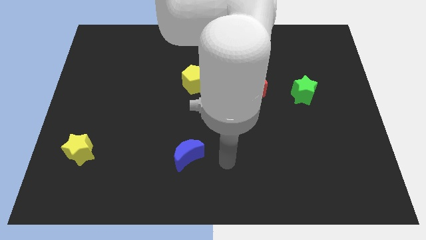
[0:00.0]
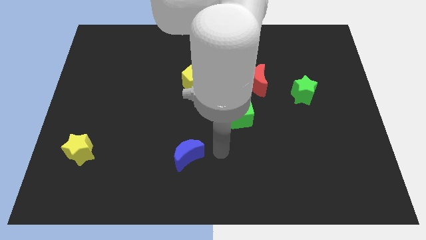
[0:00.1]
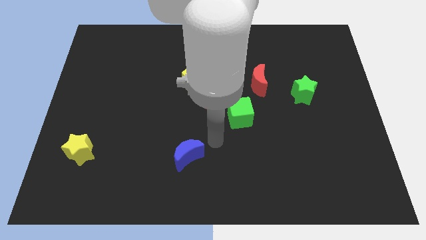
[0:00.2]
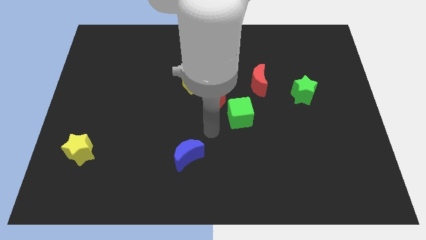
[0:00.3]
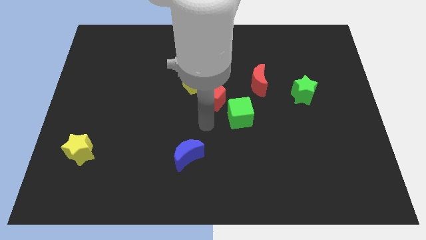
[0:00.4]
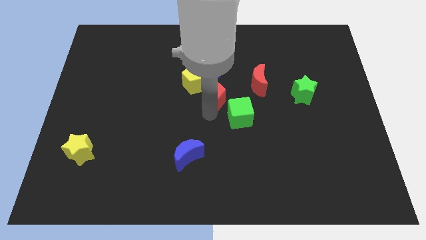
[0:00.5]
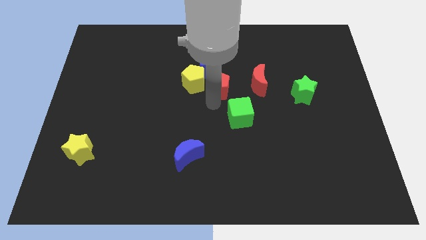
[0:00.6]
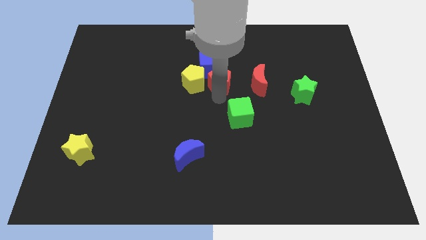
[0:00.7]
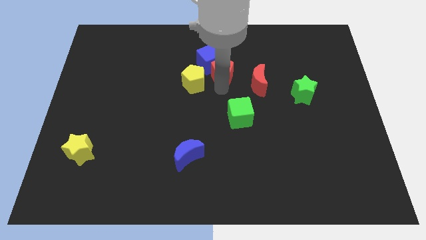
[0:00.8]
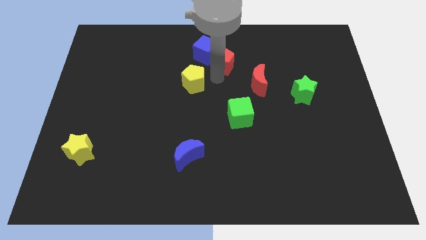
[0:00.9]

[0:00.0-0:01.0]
pull the yellow pentagon apart from the blue cube and red pentagon

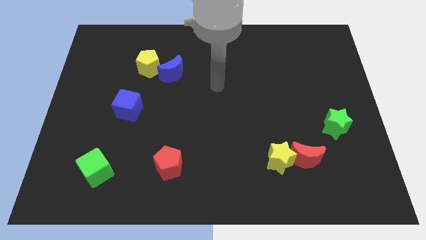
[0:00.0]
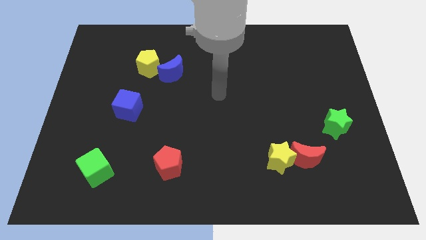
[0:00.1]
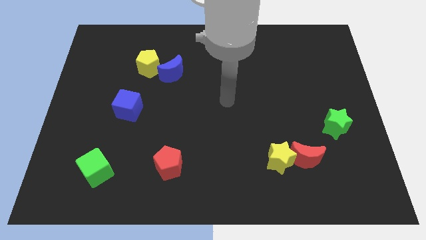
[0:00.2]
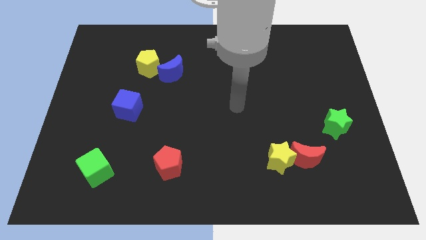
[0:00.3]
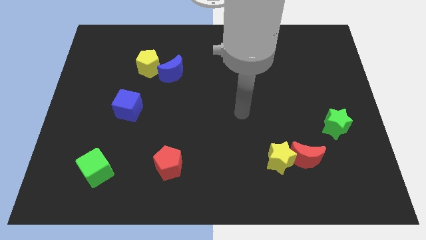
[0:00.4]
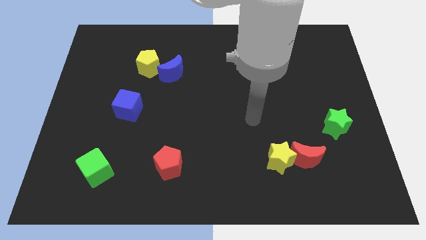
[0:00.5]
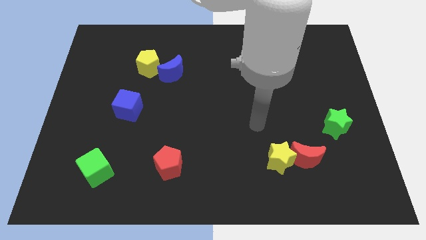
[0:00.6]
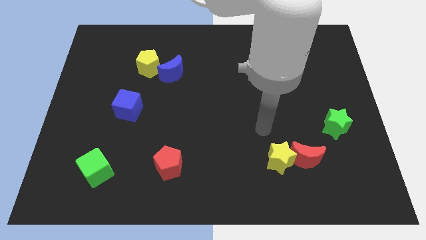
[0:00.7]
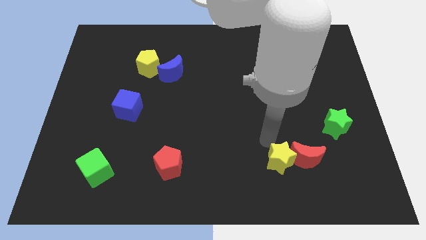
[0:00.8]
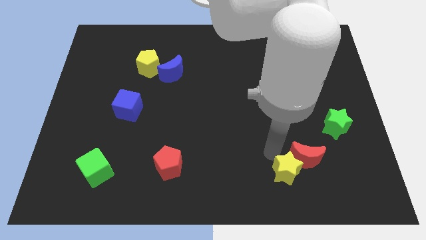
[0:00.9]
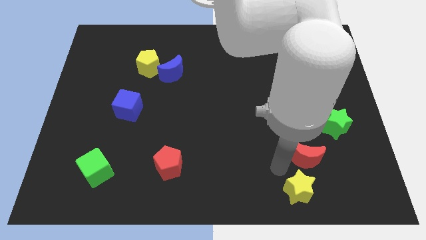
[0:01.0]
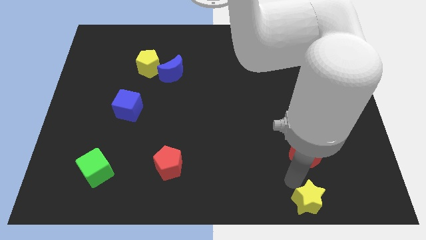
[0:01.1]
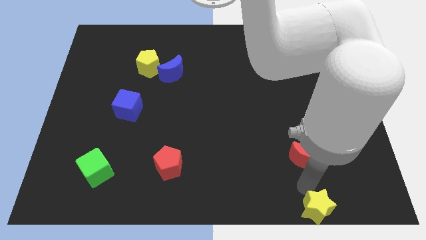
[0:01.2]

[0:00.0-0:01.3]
move the red moon away from the yellow star

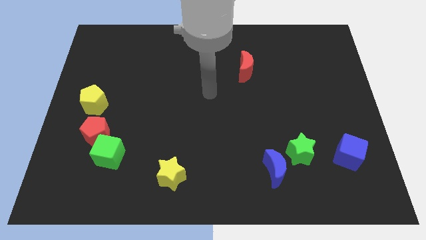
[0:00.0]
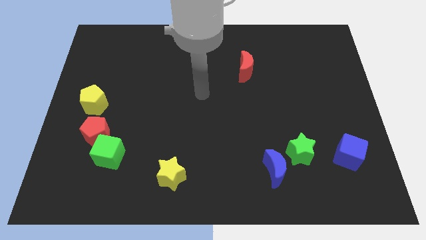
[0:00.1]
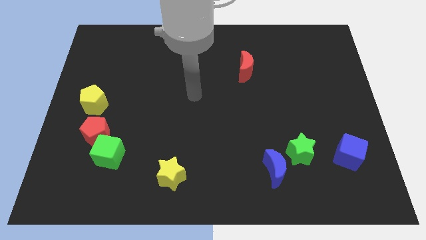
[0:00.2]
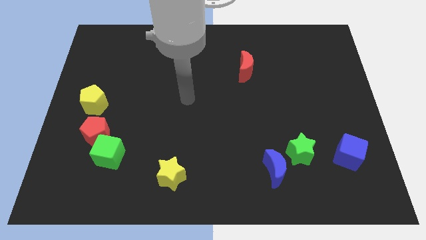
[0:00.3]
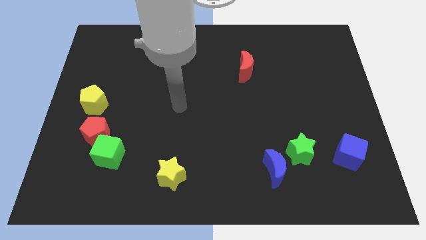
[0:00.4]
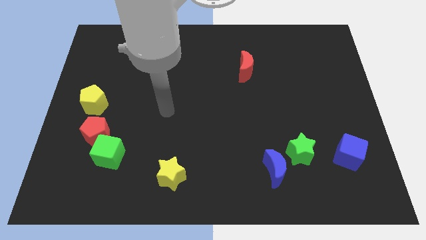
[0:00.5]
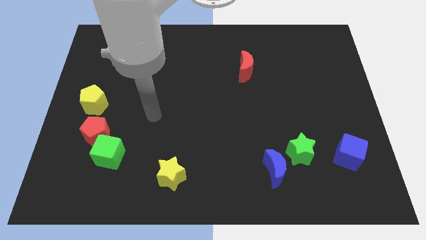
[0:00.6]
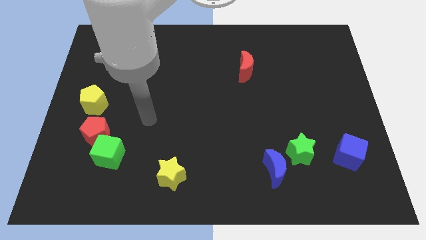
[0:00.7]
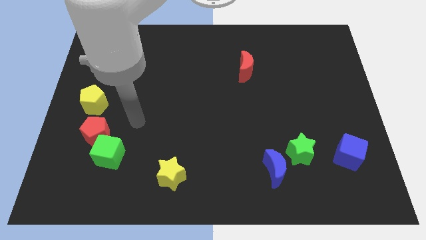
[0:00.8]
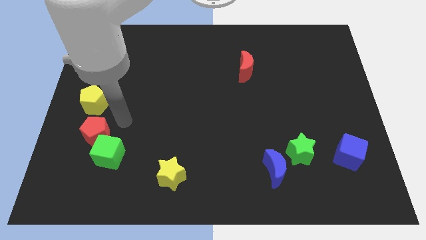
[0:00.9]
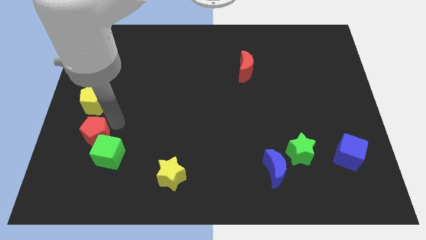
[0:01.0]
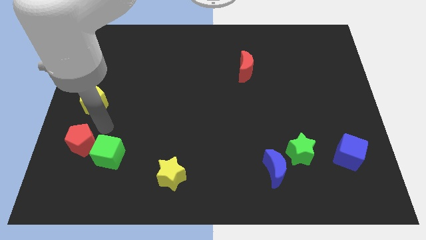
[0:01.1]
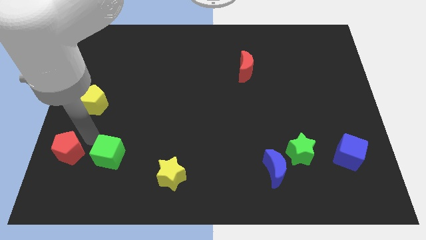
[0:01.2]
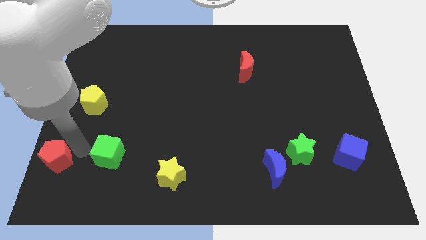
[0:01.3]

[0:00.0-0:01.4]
separate the green cube from the red pentagon

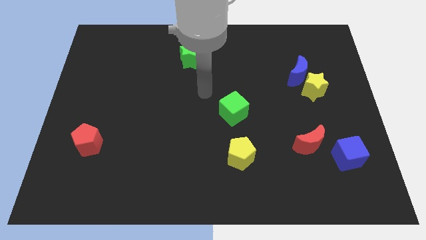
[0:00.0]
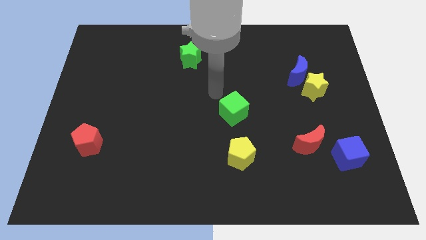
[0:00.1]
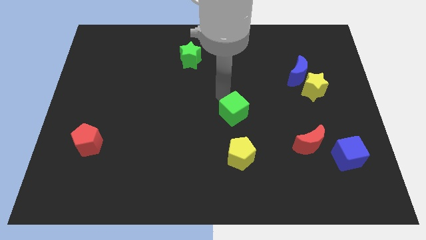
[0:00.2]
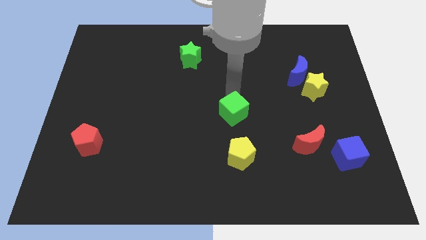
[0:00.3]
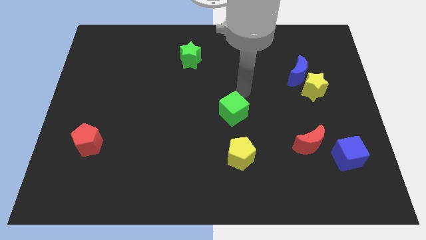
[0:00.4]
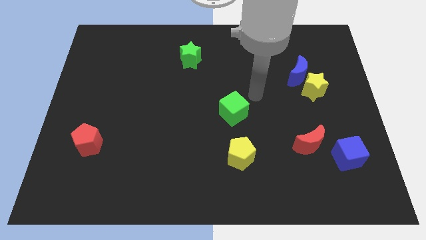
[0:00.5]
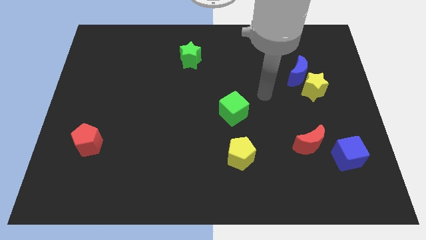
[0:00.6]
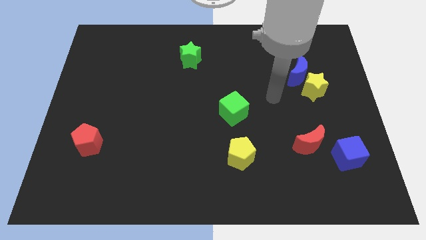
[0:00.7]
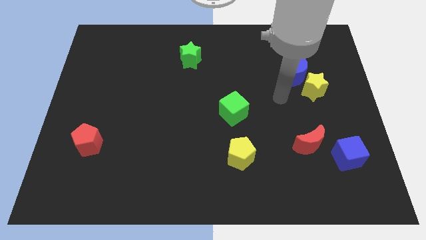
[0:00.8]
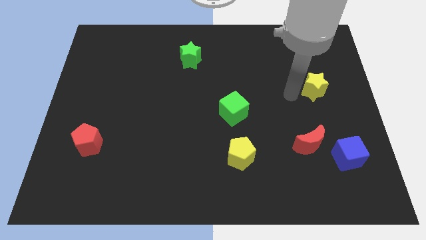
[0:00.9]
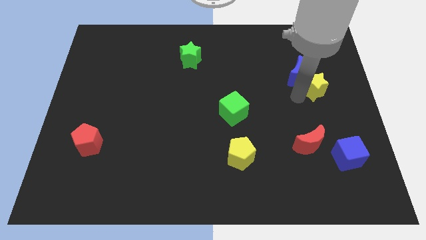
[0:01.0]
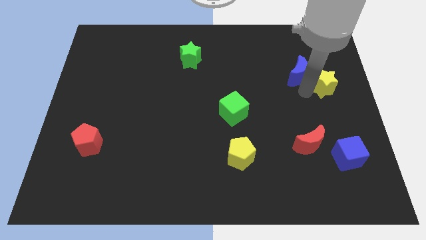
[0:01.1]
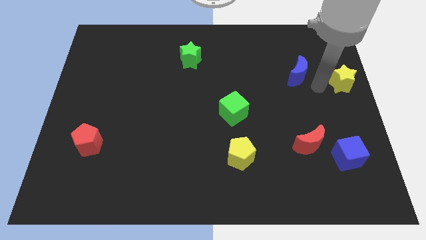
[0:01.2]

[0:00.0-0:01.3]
move the blue moon away from the yellow star

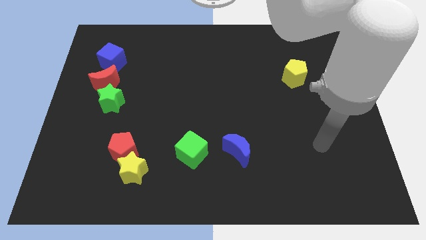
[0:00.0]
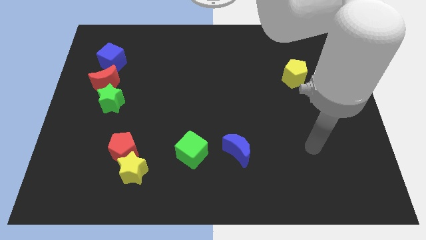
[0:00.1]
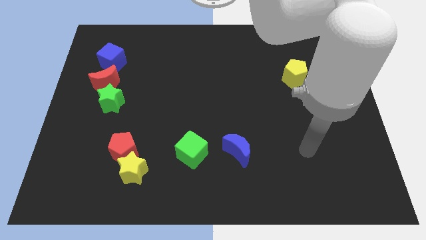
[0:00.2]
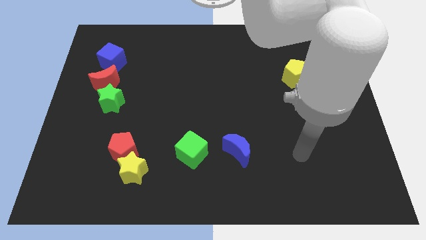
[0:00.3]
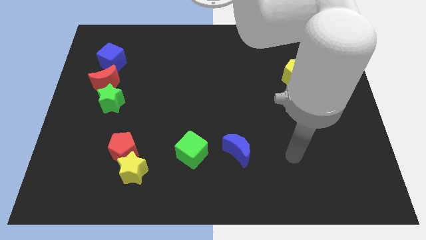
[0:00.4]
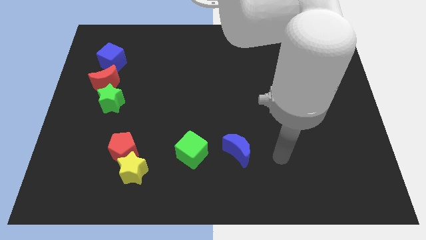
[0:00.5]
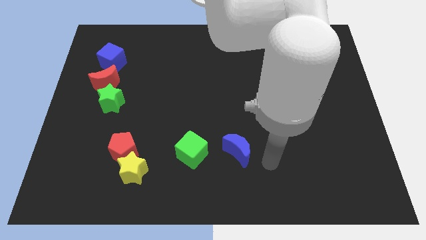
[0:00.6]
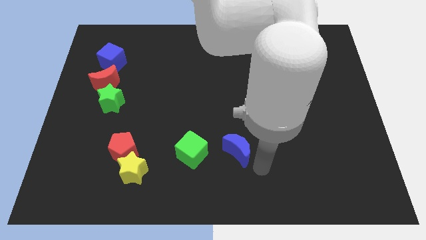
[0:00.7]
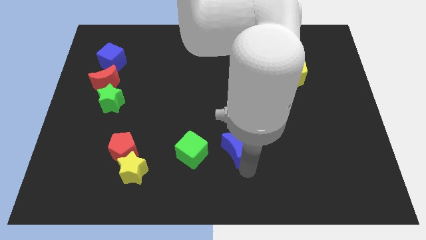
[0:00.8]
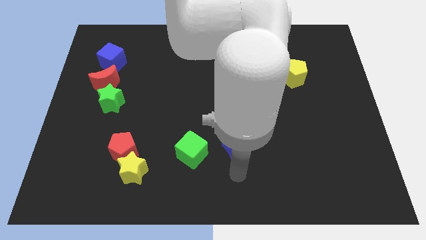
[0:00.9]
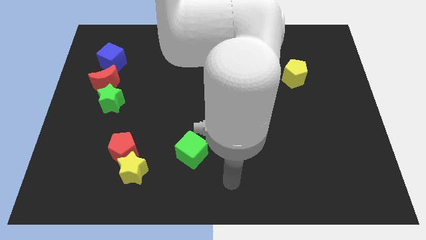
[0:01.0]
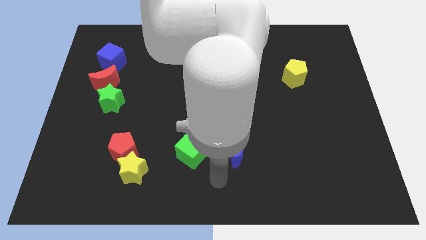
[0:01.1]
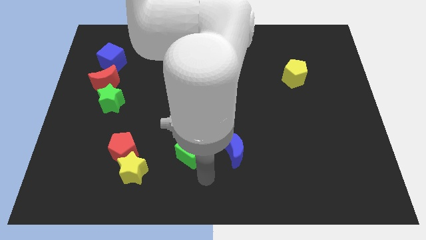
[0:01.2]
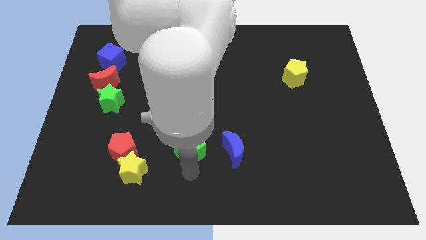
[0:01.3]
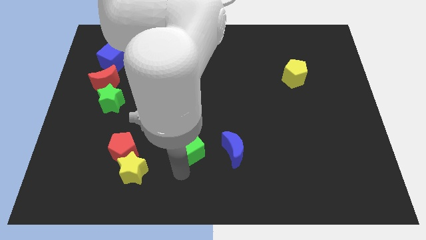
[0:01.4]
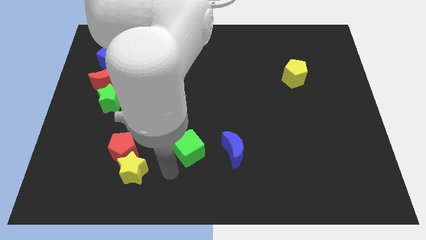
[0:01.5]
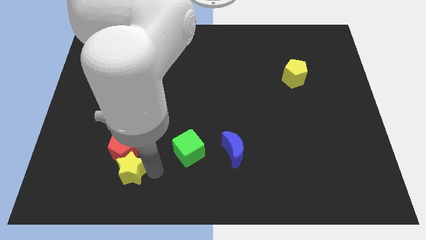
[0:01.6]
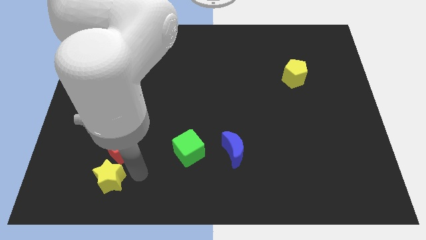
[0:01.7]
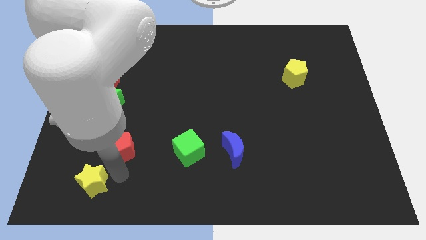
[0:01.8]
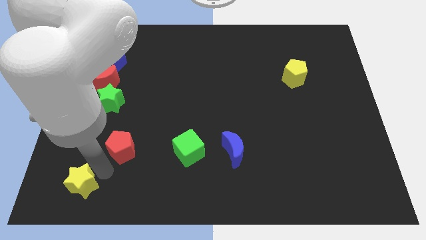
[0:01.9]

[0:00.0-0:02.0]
pull the red pentagon apart from the yellow star

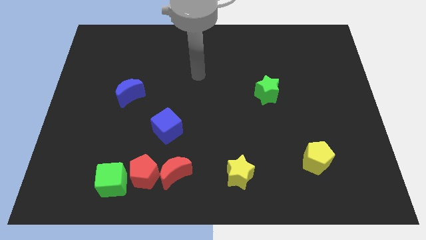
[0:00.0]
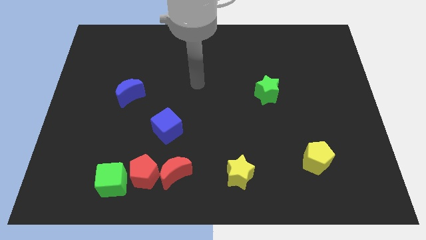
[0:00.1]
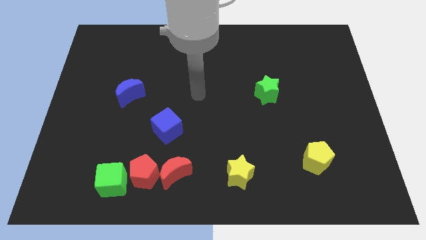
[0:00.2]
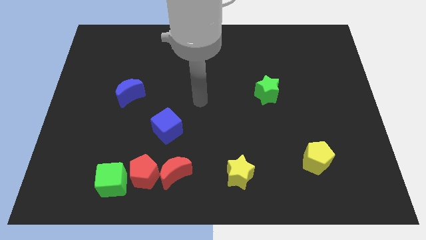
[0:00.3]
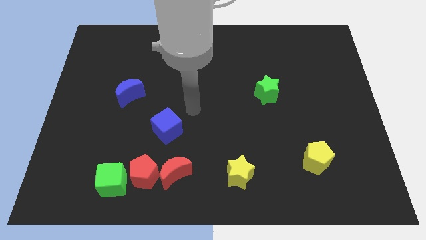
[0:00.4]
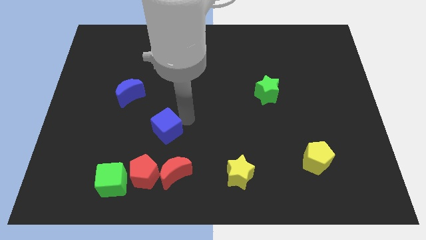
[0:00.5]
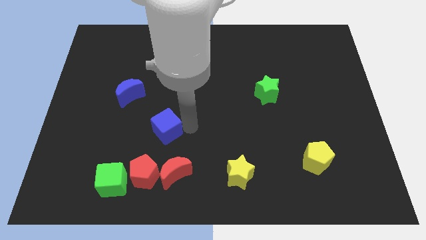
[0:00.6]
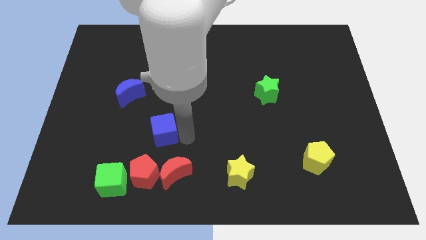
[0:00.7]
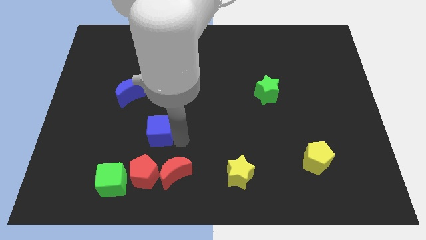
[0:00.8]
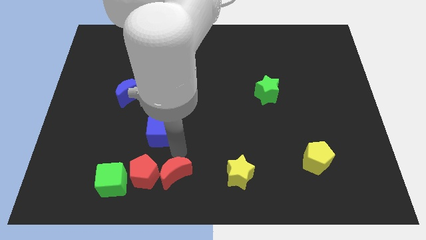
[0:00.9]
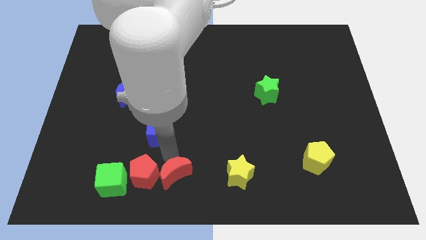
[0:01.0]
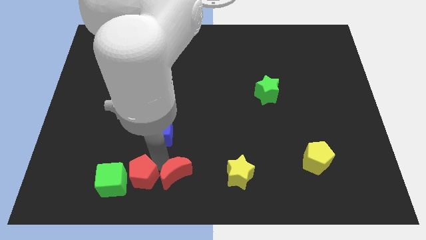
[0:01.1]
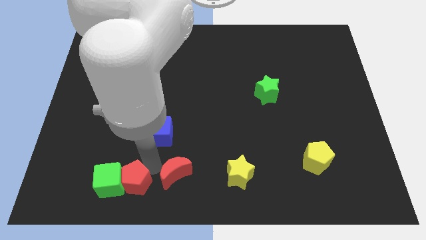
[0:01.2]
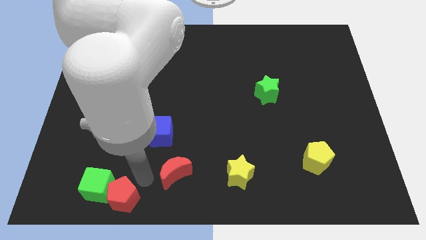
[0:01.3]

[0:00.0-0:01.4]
pull the red moon apart from the red pentagon

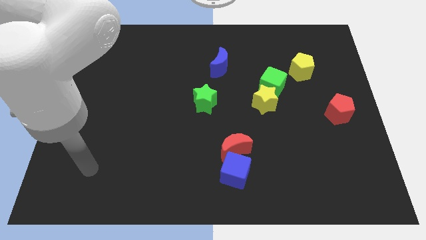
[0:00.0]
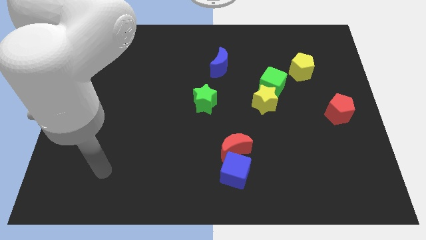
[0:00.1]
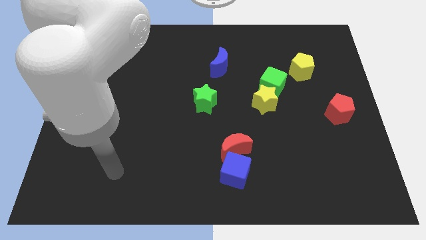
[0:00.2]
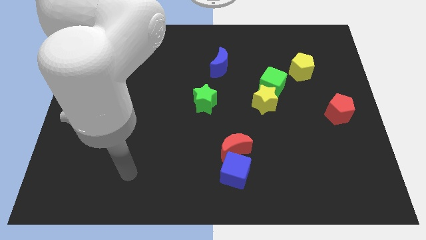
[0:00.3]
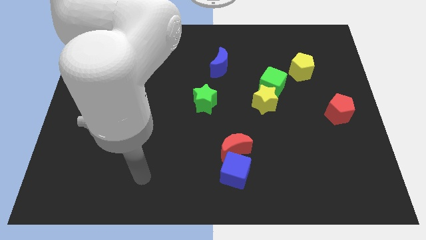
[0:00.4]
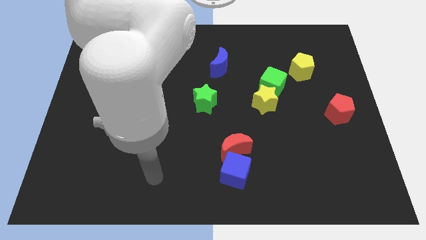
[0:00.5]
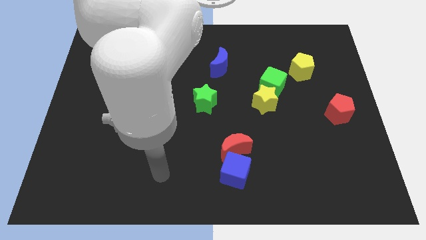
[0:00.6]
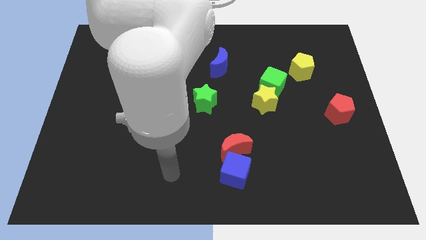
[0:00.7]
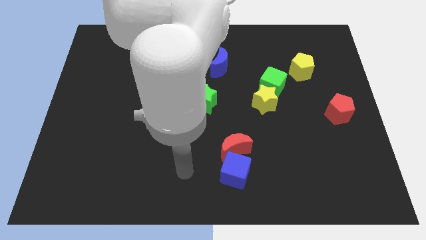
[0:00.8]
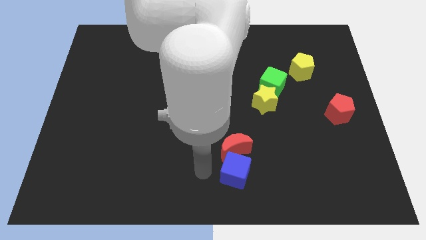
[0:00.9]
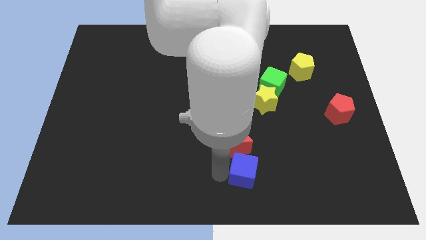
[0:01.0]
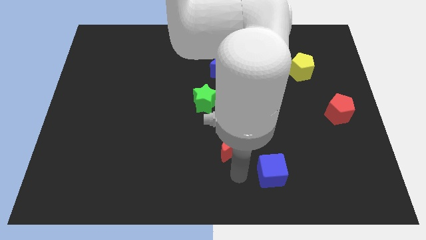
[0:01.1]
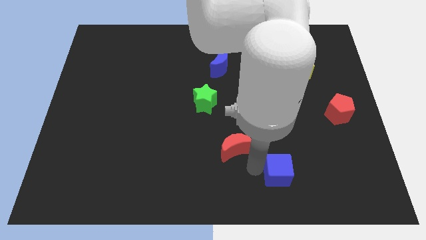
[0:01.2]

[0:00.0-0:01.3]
pull the red moon apart from the blue cube
